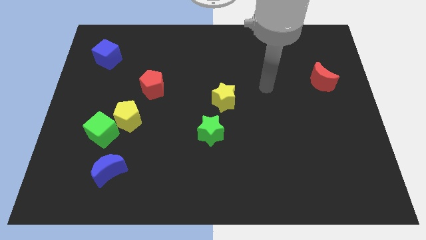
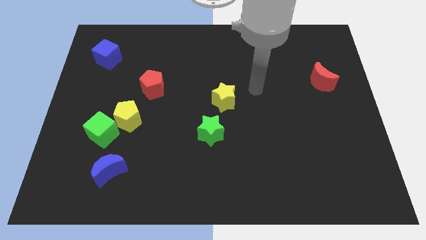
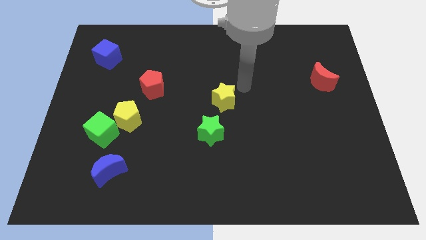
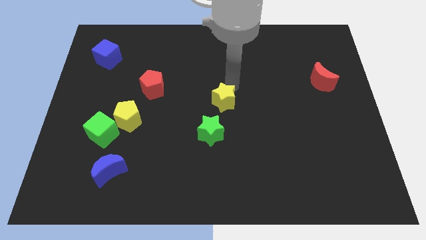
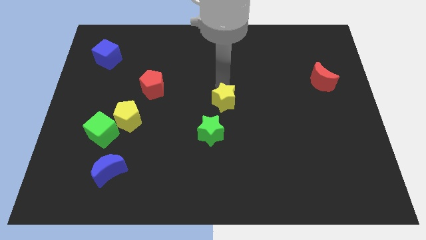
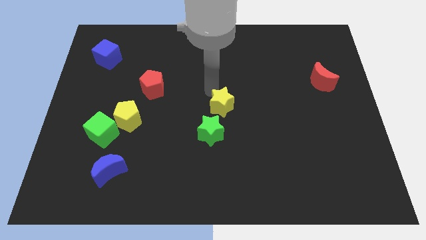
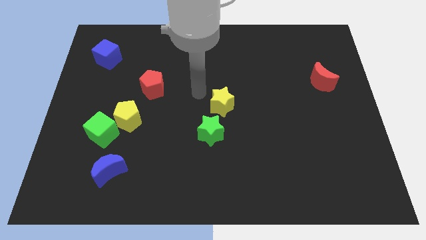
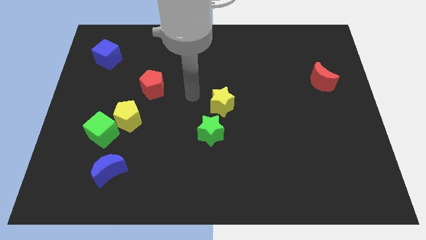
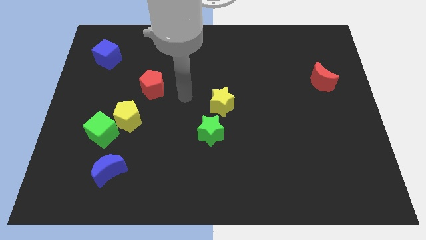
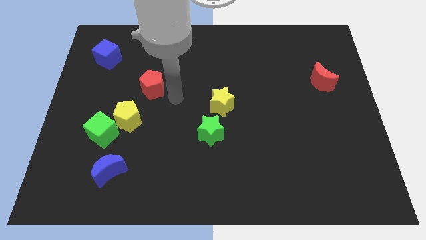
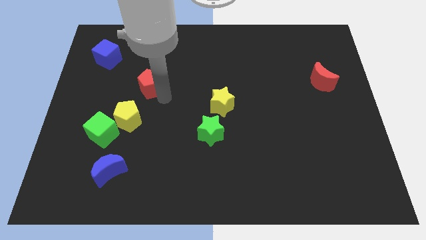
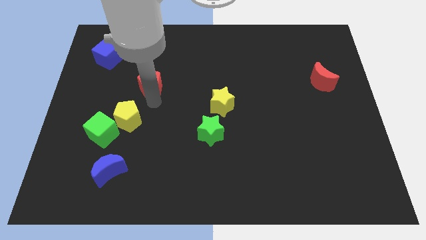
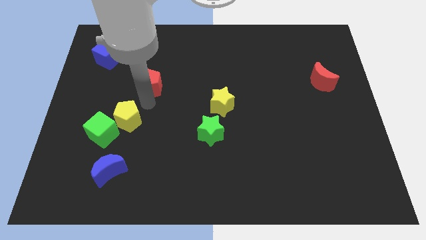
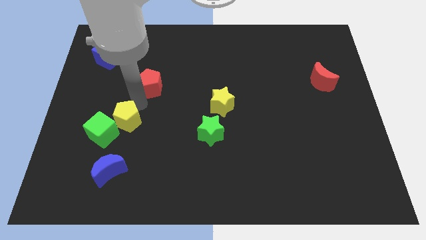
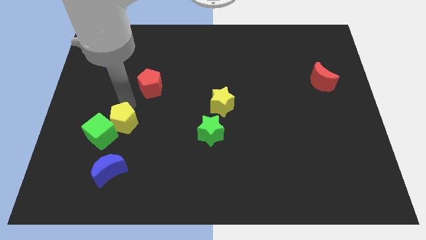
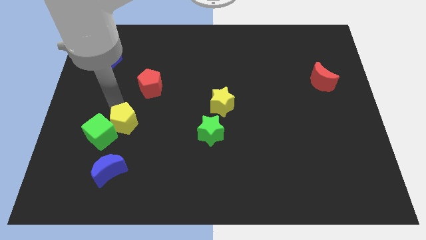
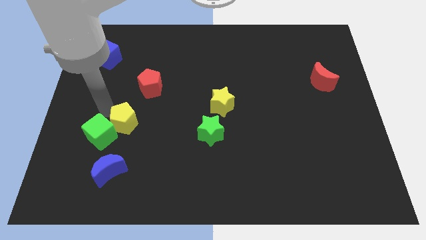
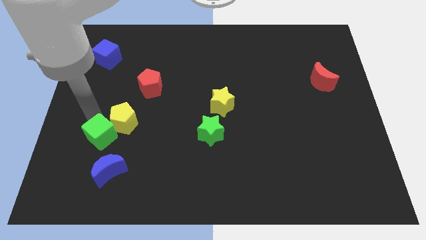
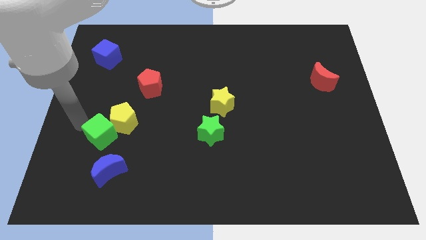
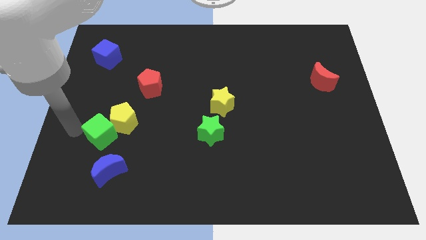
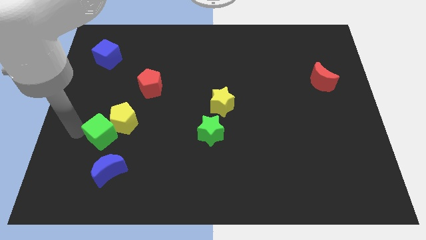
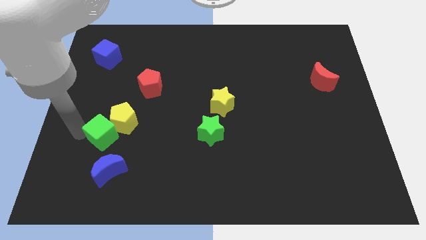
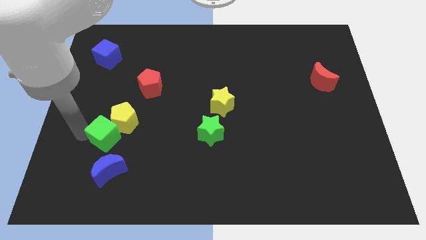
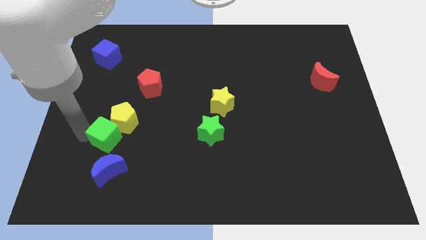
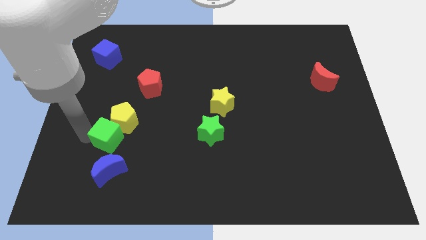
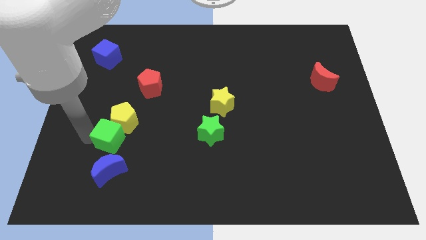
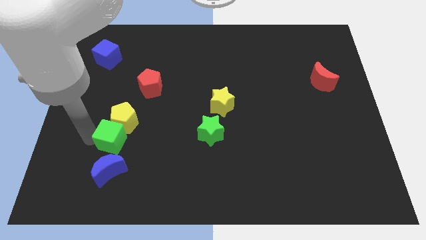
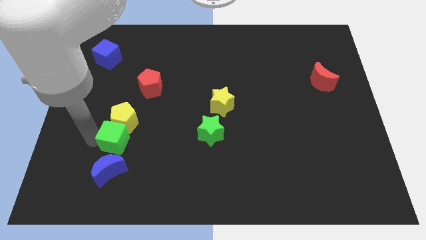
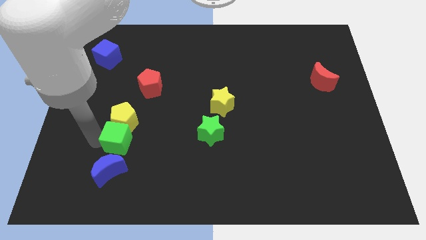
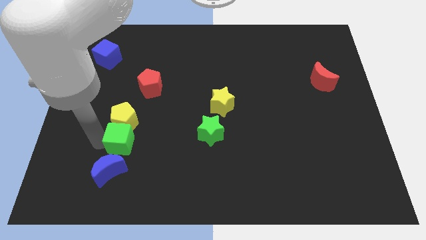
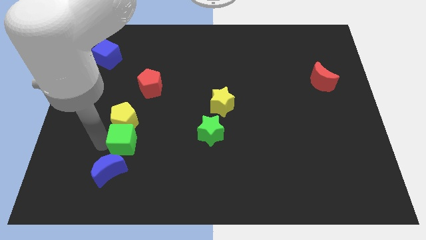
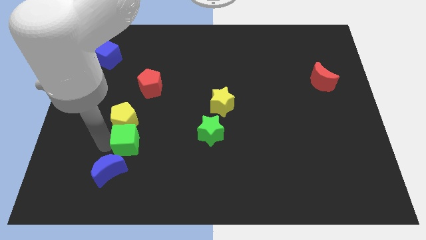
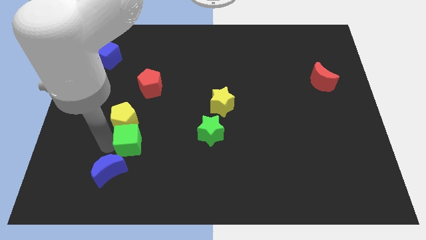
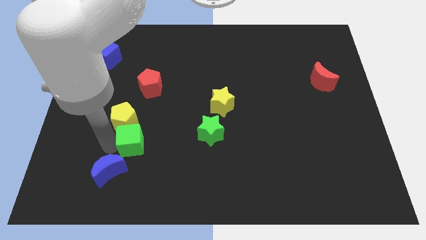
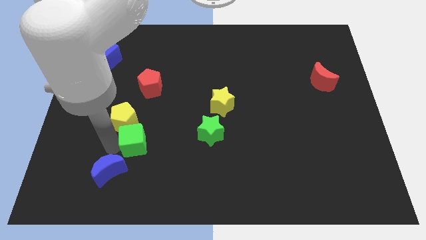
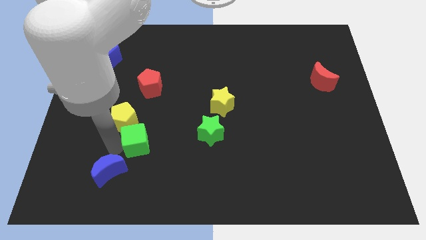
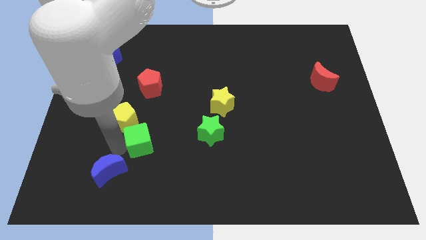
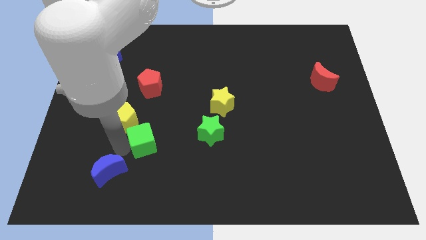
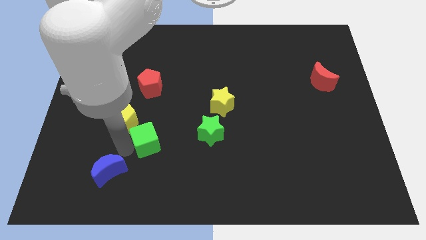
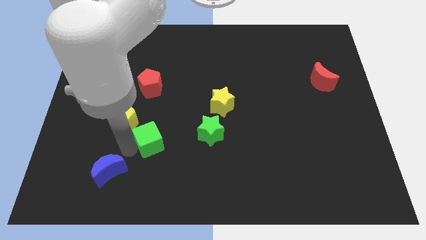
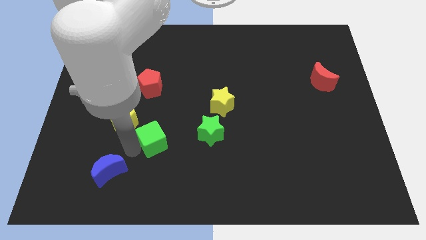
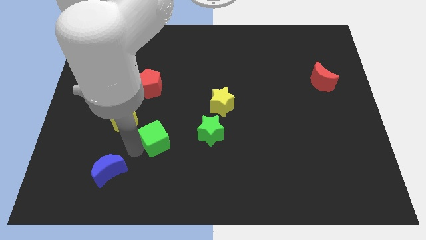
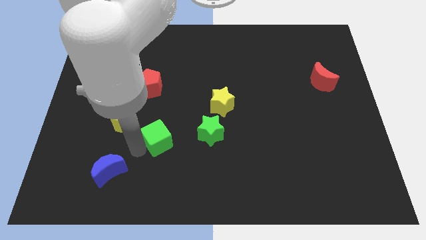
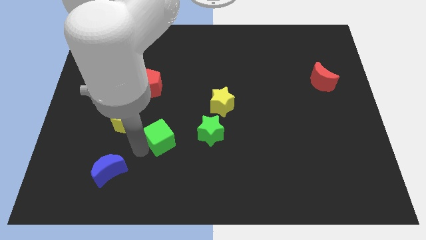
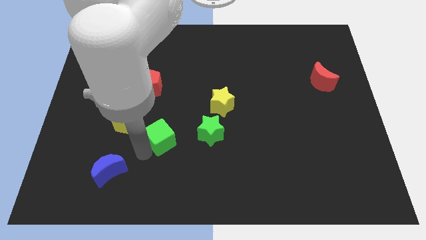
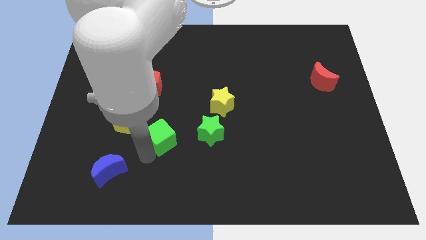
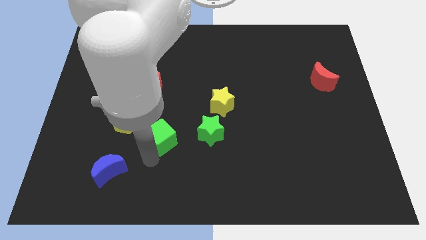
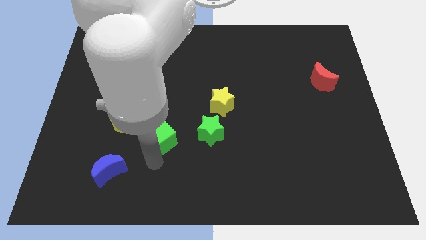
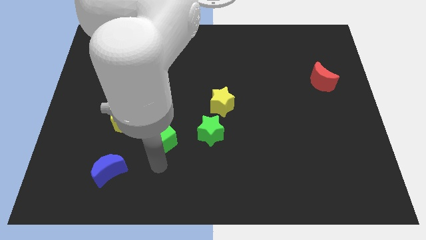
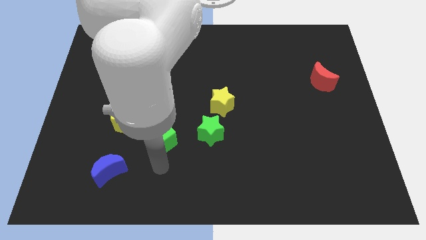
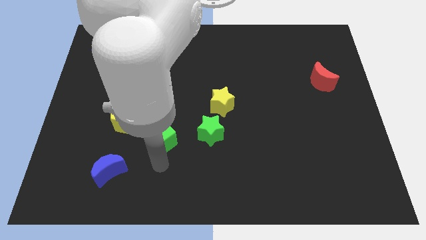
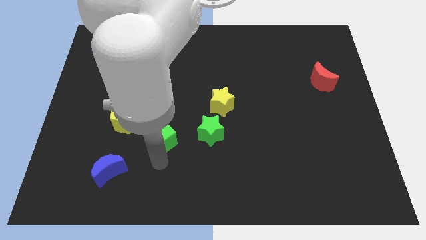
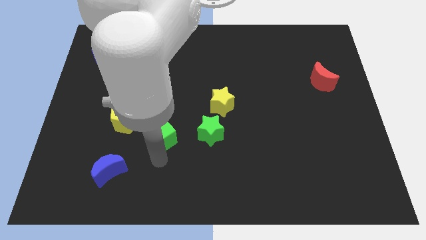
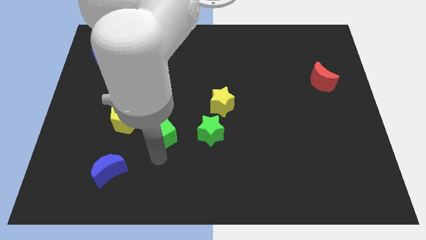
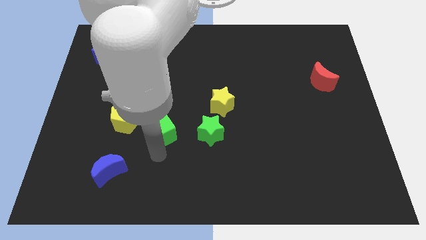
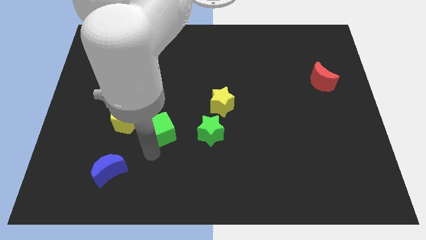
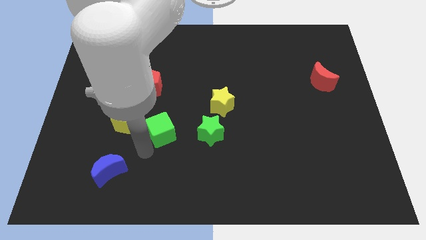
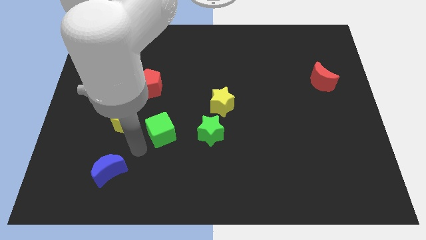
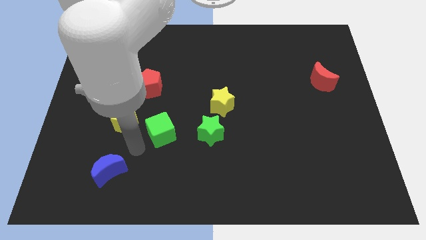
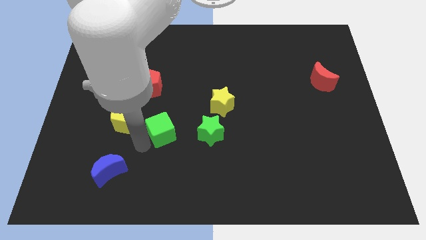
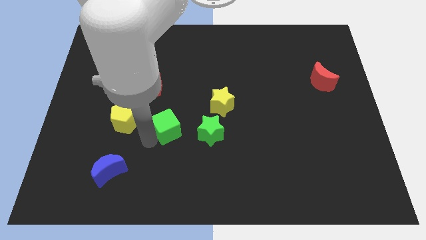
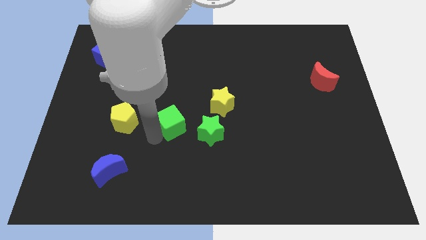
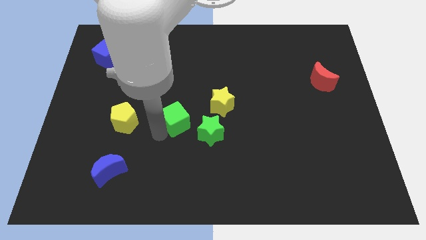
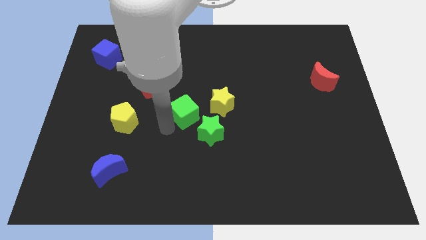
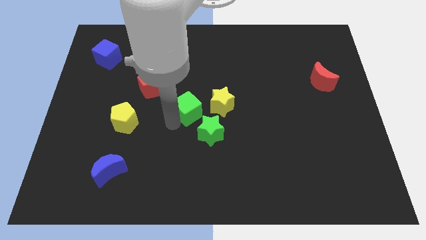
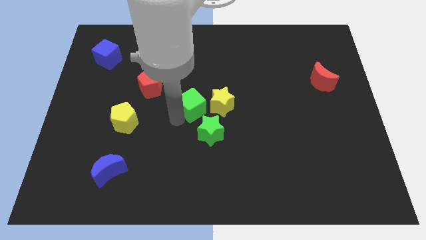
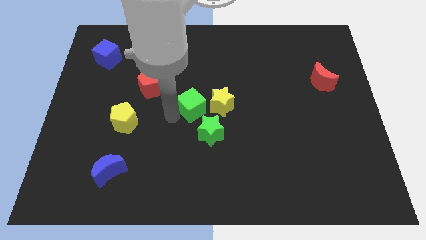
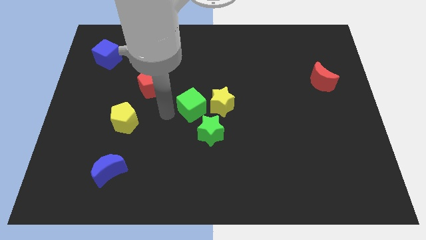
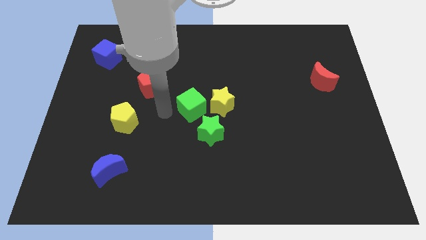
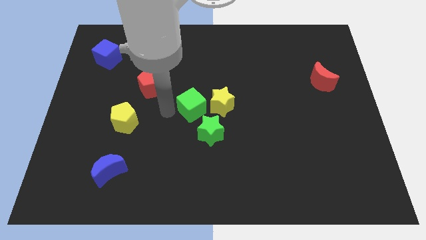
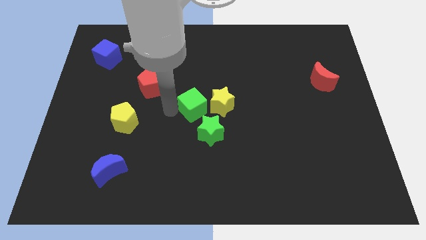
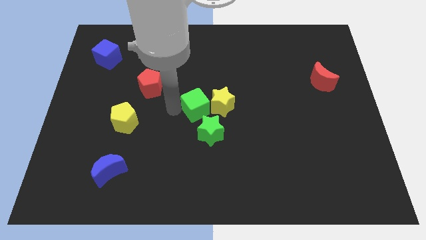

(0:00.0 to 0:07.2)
slide the green cube towards the yellow star
